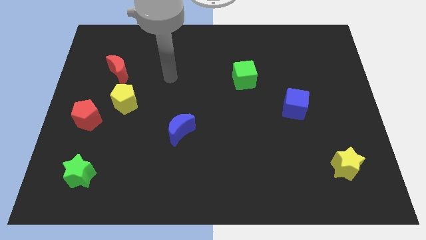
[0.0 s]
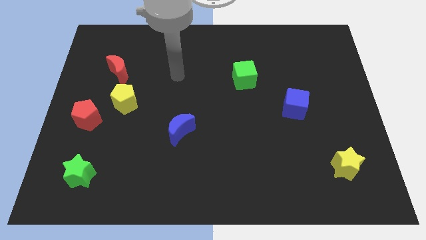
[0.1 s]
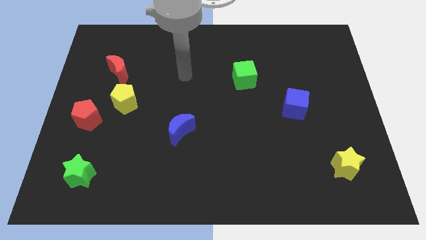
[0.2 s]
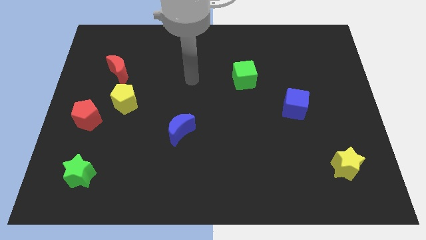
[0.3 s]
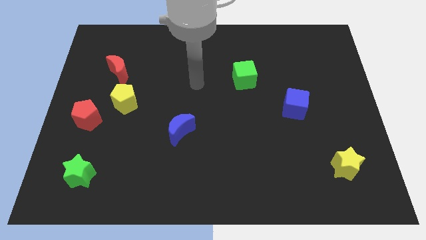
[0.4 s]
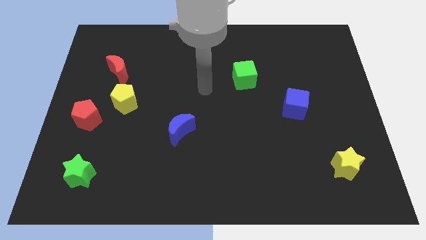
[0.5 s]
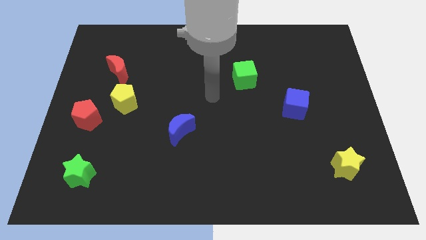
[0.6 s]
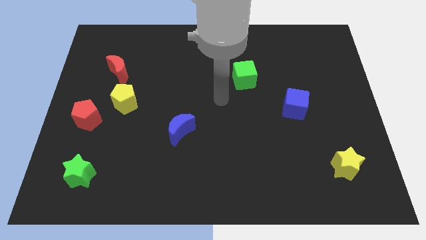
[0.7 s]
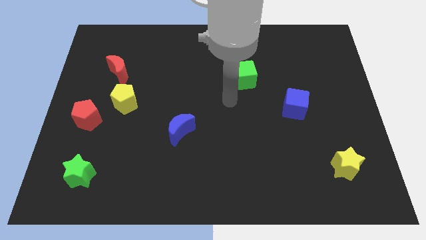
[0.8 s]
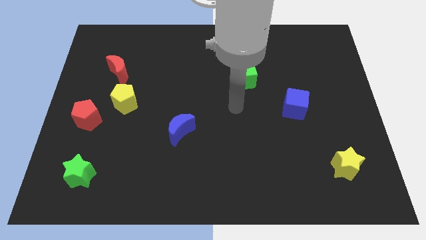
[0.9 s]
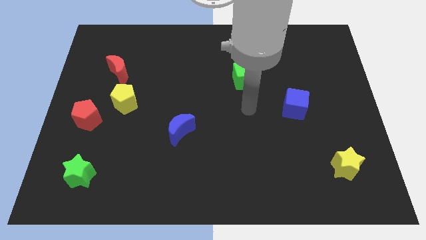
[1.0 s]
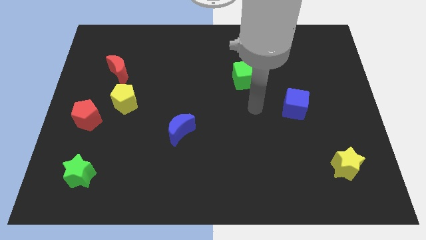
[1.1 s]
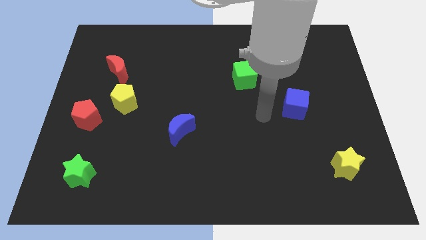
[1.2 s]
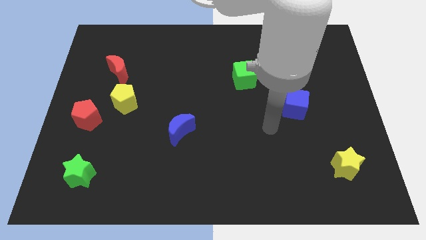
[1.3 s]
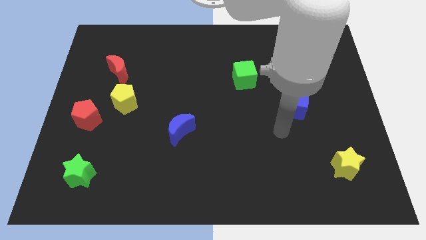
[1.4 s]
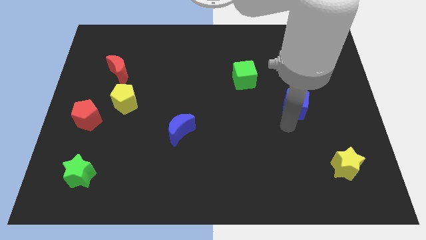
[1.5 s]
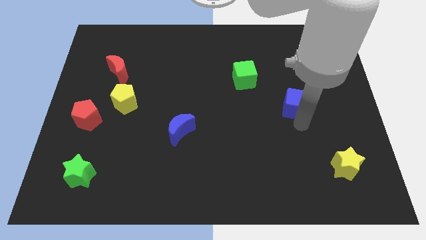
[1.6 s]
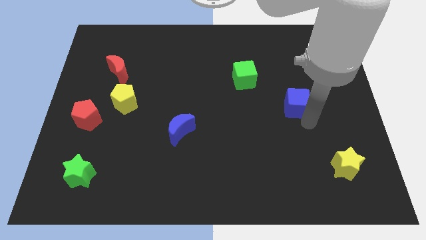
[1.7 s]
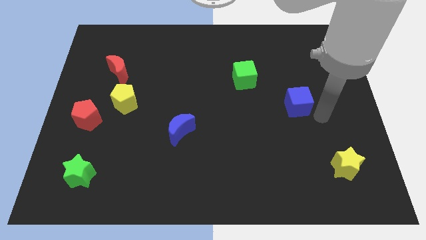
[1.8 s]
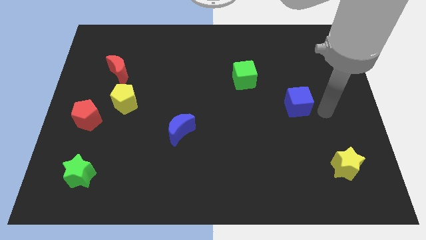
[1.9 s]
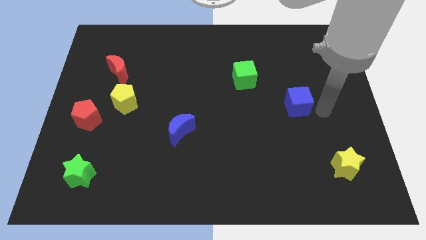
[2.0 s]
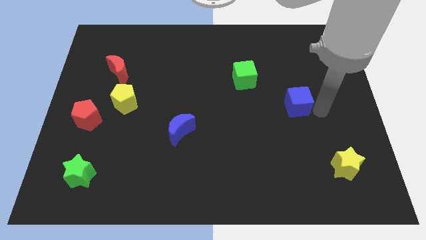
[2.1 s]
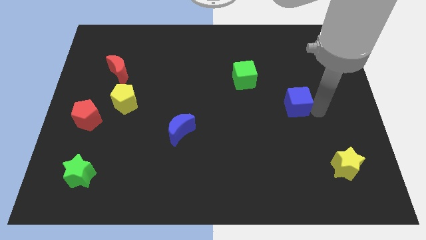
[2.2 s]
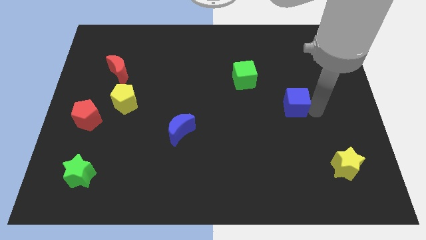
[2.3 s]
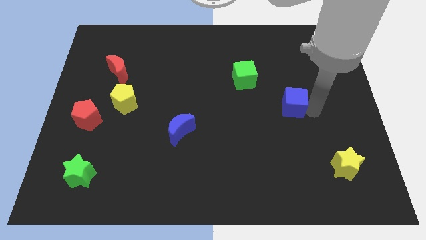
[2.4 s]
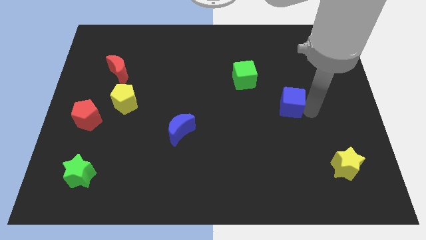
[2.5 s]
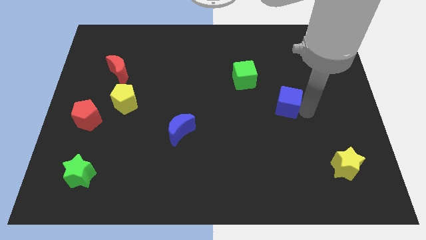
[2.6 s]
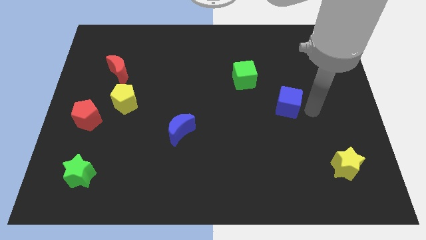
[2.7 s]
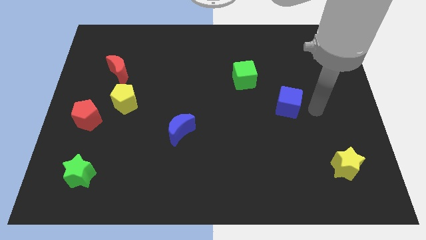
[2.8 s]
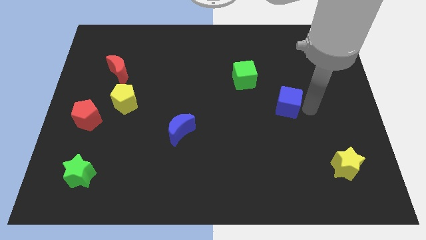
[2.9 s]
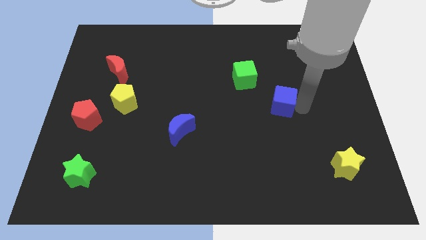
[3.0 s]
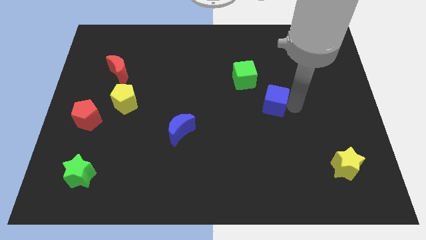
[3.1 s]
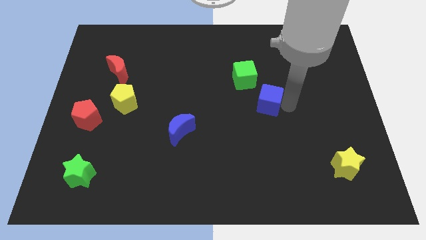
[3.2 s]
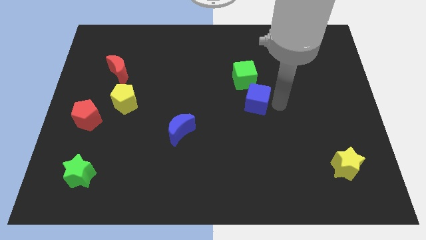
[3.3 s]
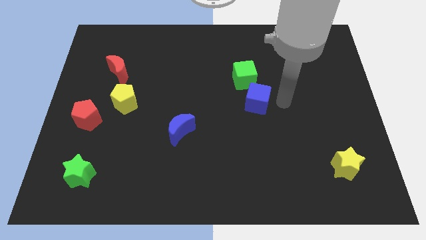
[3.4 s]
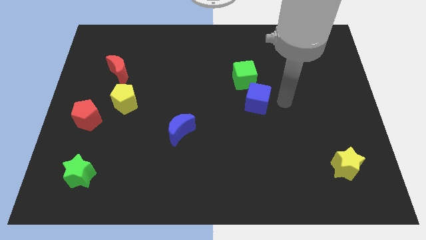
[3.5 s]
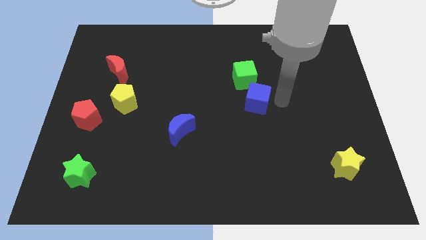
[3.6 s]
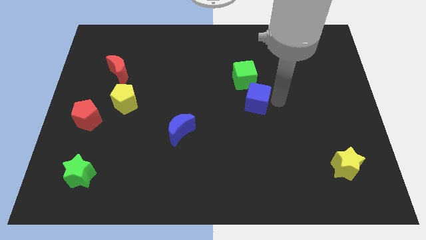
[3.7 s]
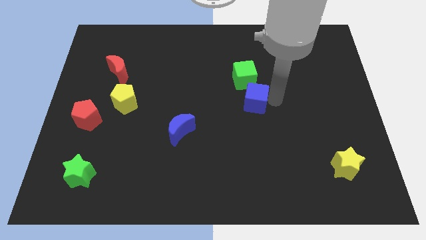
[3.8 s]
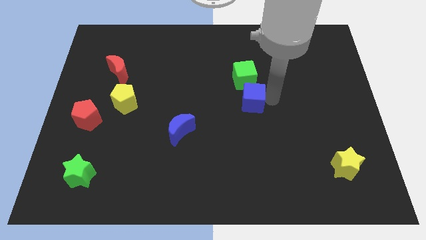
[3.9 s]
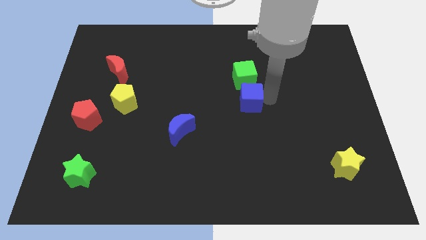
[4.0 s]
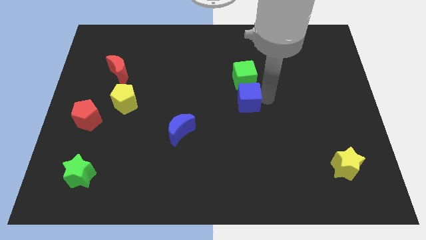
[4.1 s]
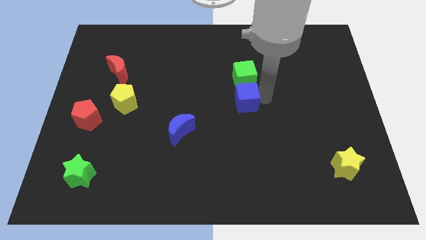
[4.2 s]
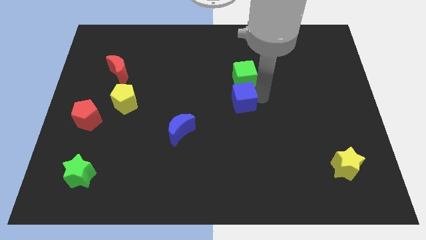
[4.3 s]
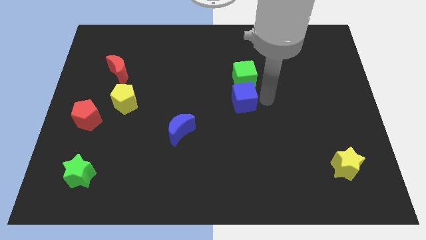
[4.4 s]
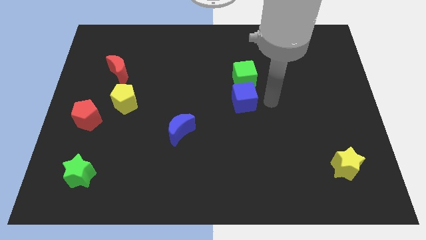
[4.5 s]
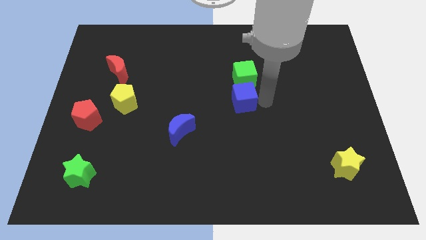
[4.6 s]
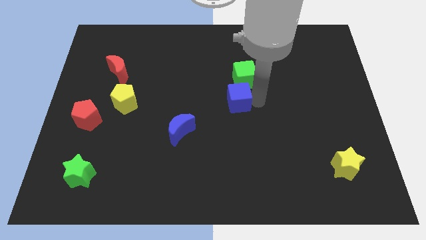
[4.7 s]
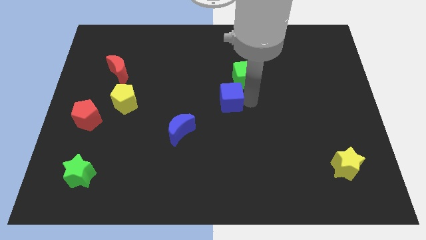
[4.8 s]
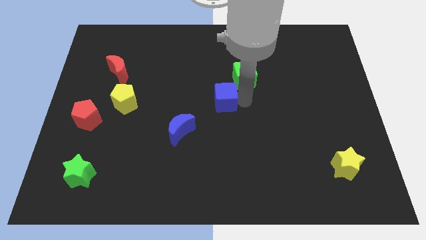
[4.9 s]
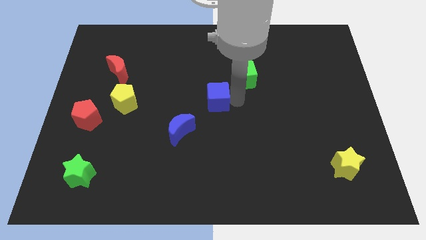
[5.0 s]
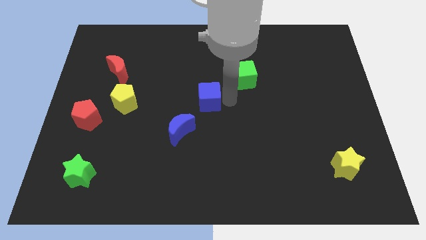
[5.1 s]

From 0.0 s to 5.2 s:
slide the blue cube left

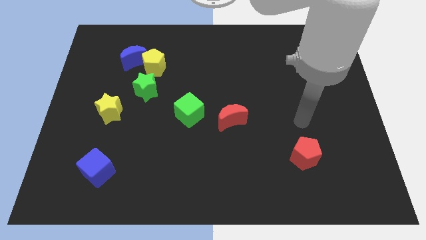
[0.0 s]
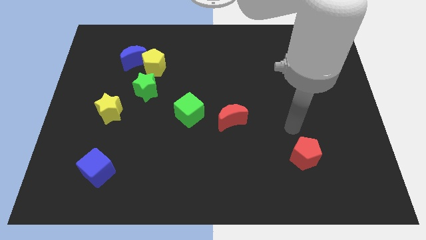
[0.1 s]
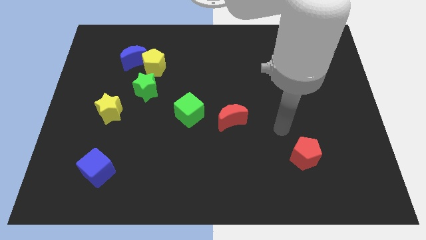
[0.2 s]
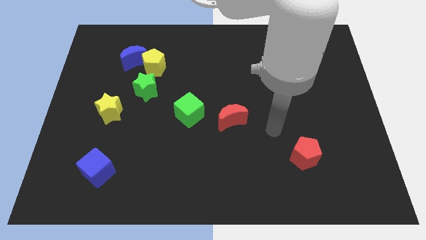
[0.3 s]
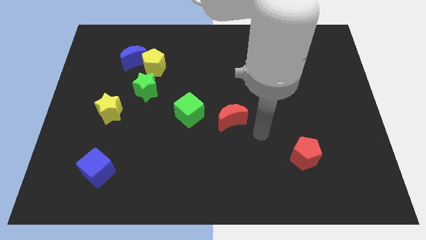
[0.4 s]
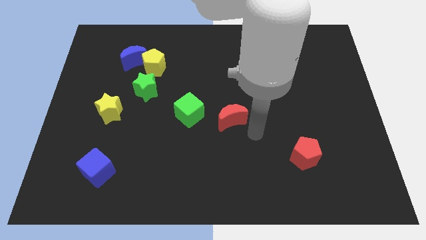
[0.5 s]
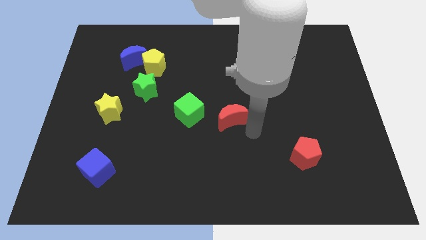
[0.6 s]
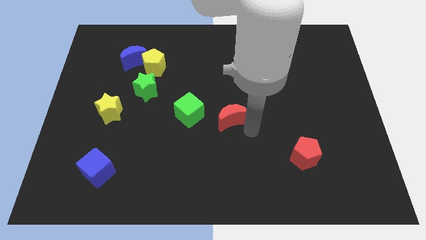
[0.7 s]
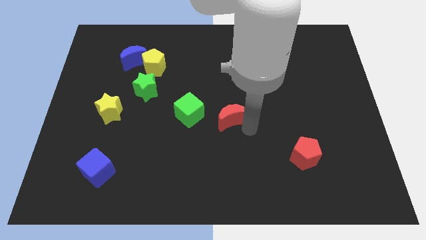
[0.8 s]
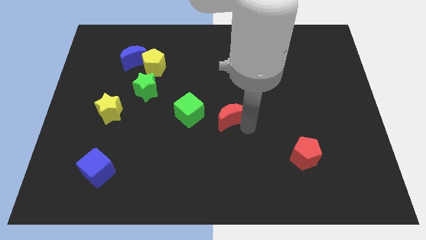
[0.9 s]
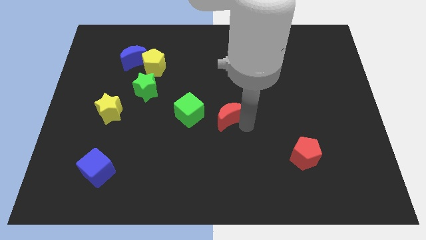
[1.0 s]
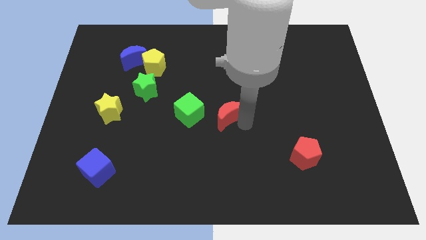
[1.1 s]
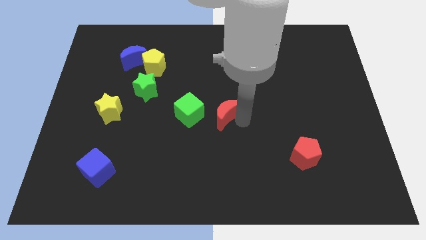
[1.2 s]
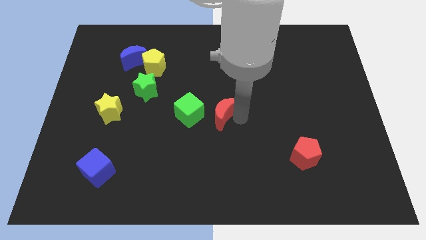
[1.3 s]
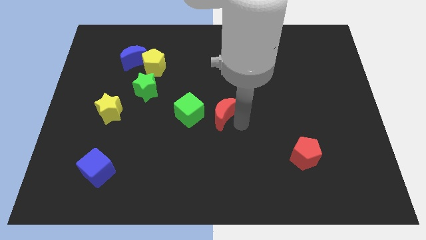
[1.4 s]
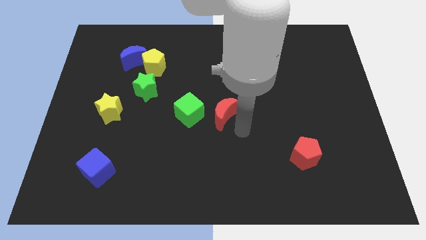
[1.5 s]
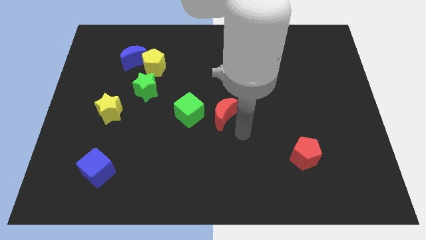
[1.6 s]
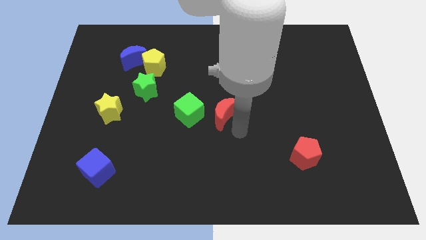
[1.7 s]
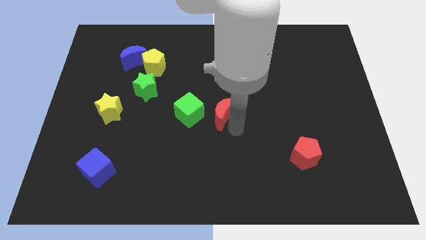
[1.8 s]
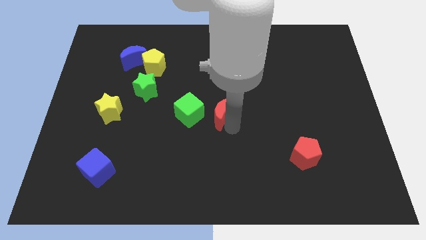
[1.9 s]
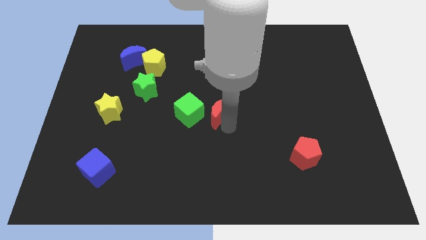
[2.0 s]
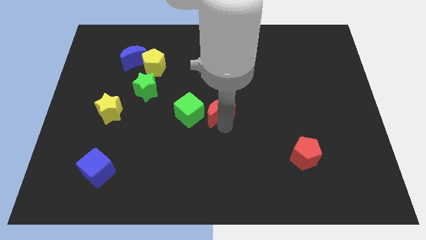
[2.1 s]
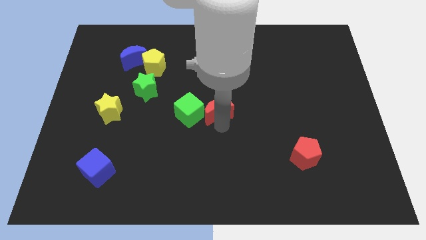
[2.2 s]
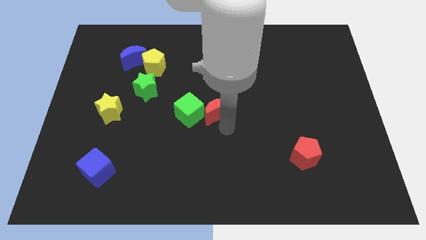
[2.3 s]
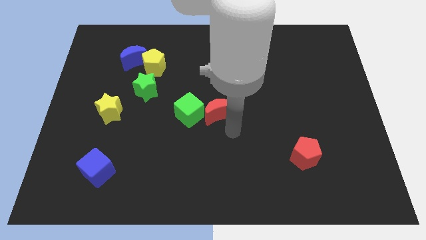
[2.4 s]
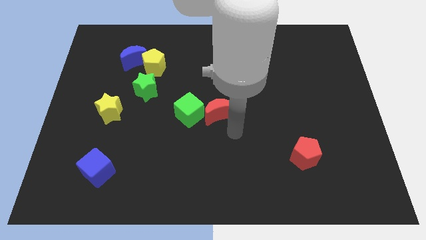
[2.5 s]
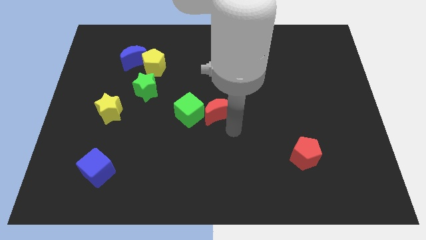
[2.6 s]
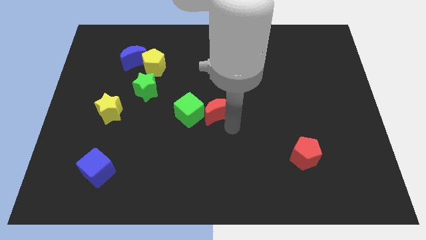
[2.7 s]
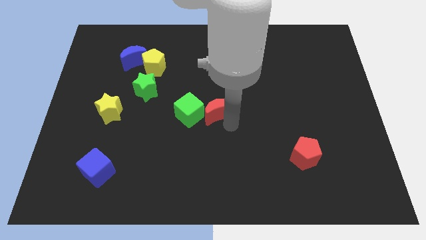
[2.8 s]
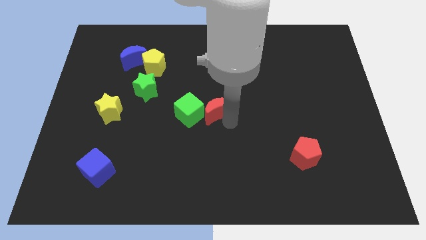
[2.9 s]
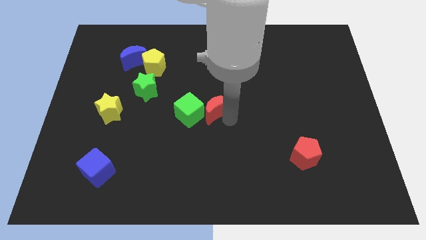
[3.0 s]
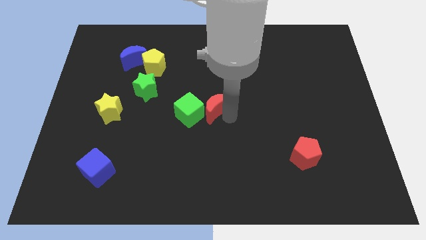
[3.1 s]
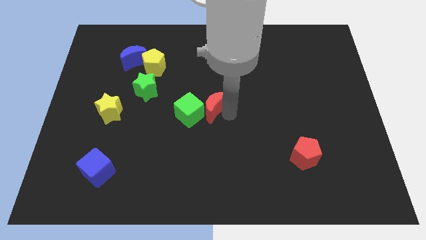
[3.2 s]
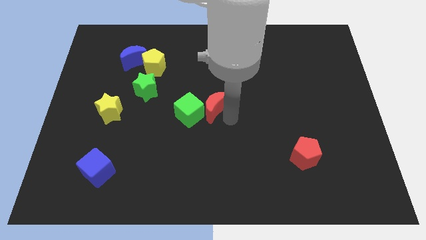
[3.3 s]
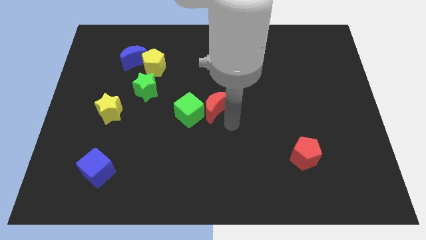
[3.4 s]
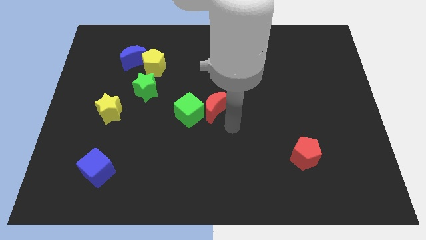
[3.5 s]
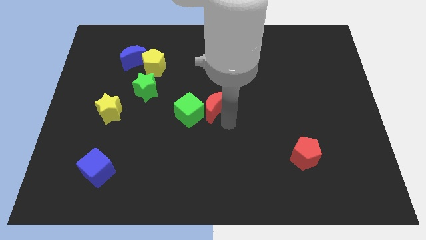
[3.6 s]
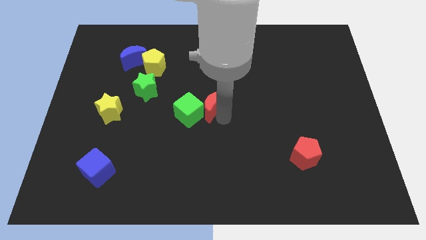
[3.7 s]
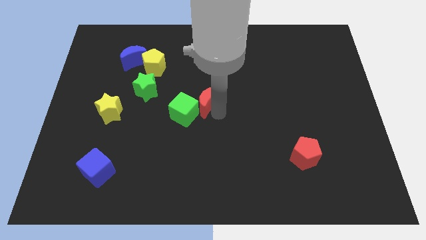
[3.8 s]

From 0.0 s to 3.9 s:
push the red moon upwards and to the left a little bit
